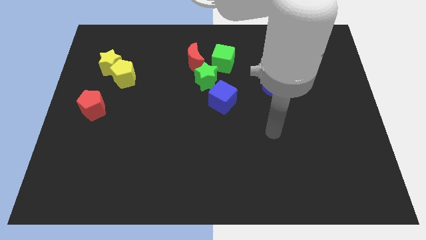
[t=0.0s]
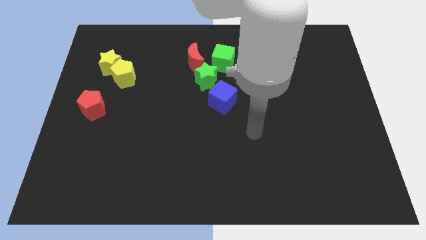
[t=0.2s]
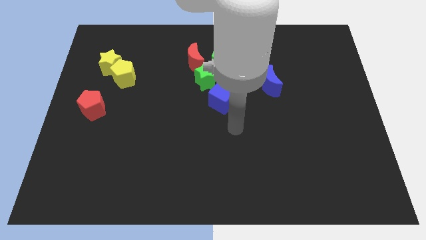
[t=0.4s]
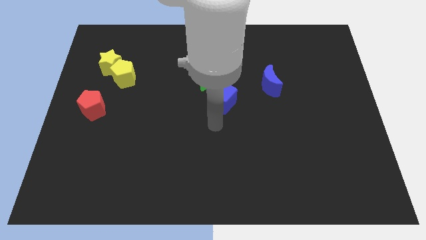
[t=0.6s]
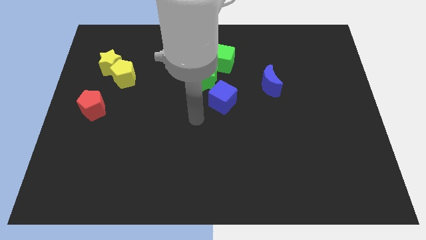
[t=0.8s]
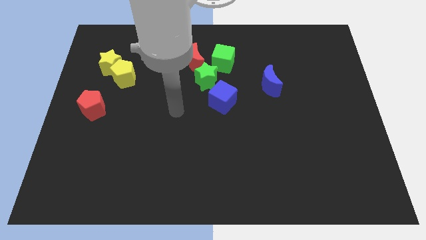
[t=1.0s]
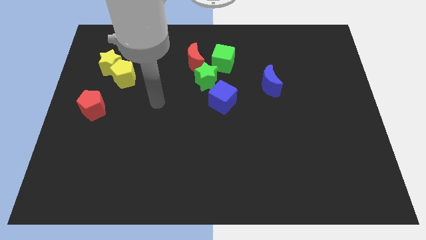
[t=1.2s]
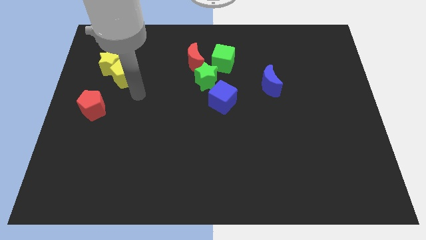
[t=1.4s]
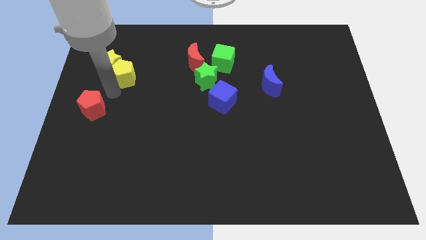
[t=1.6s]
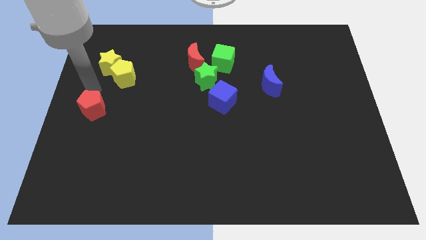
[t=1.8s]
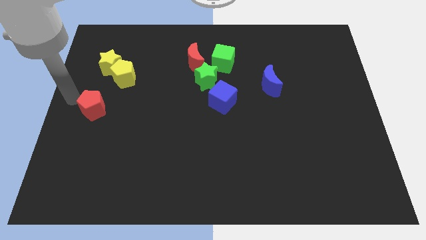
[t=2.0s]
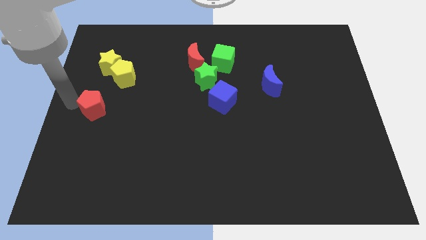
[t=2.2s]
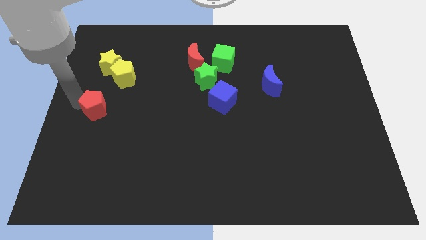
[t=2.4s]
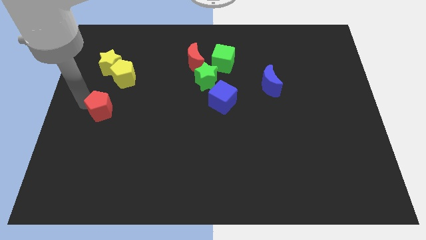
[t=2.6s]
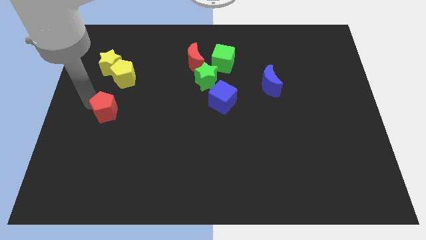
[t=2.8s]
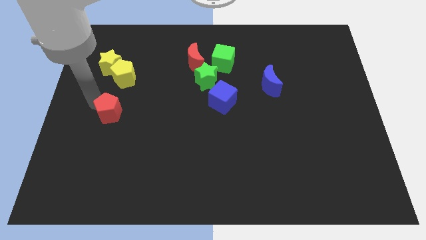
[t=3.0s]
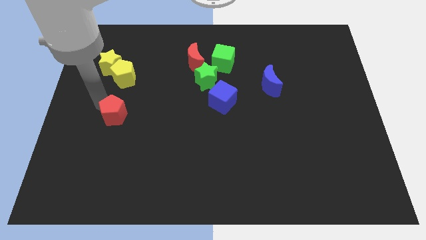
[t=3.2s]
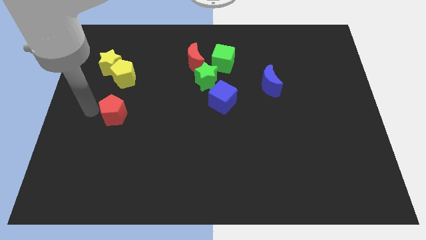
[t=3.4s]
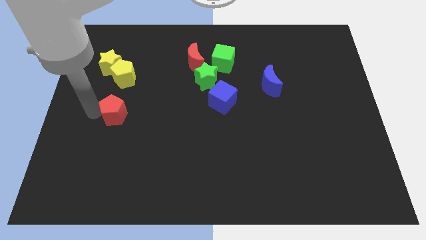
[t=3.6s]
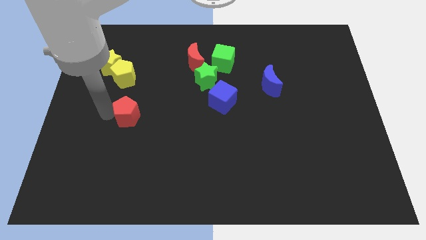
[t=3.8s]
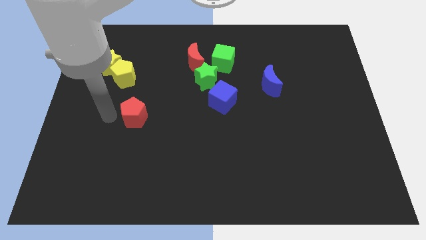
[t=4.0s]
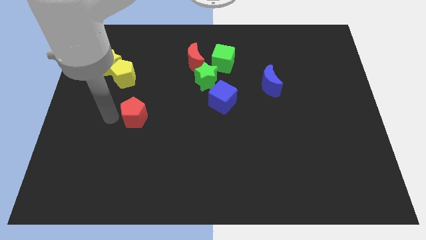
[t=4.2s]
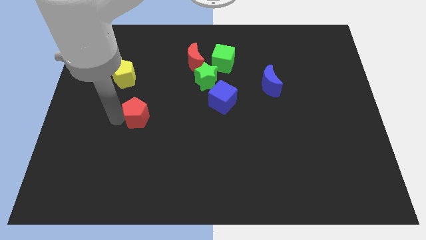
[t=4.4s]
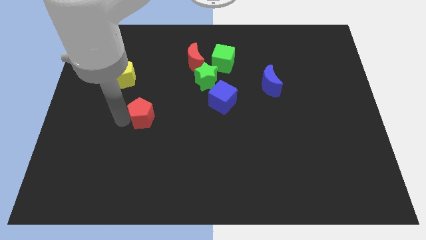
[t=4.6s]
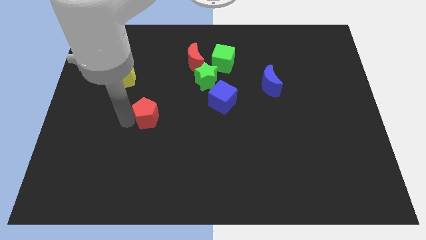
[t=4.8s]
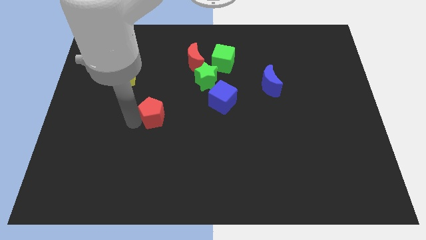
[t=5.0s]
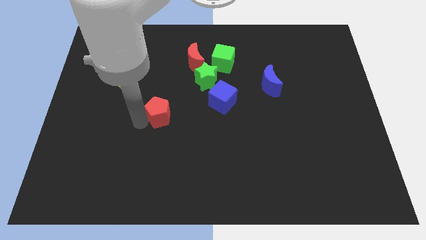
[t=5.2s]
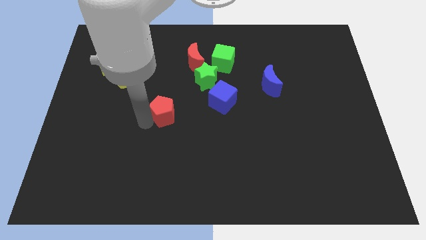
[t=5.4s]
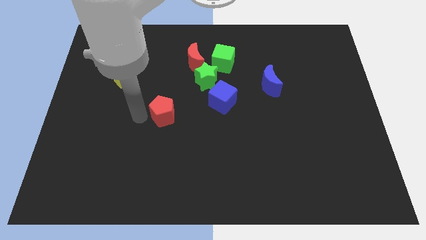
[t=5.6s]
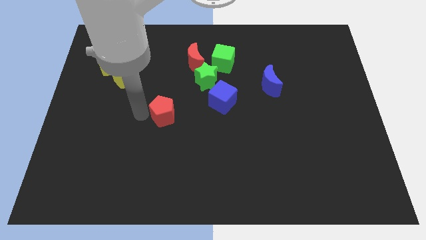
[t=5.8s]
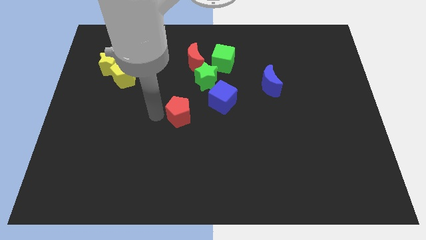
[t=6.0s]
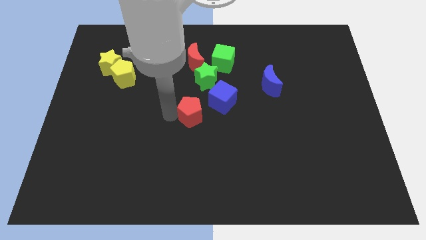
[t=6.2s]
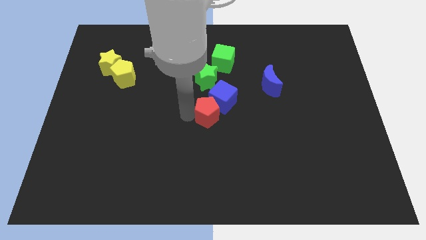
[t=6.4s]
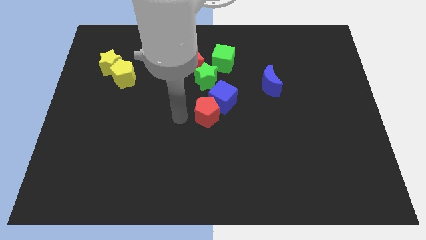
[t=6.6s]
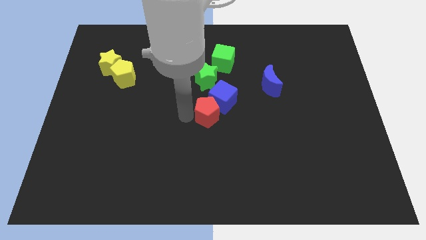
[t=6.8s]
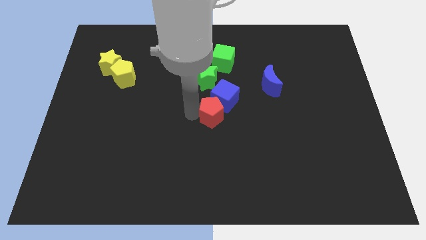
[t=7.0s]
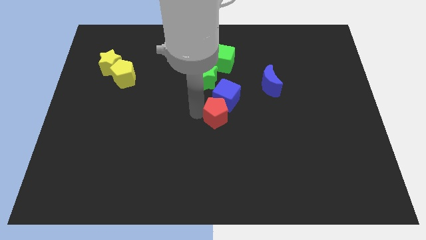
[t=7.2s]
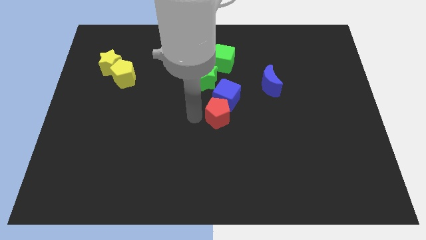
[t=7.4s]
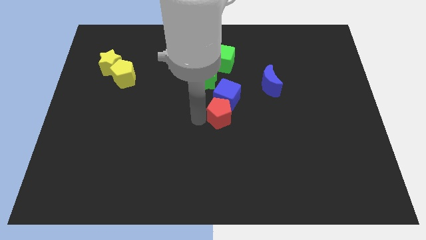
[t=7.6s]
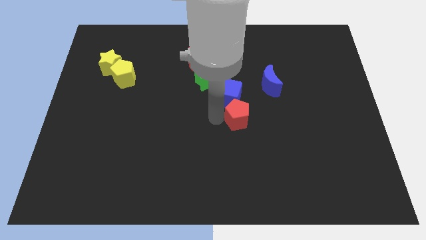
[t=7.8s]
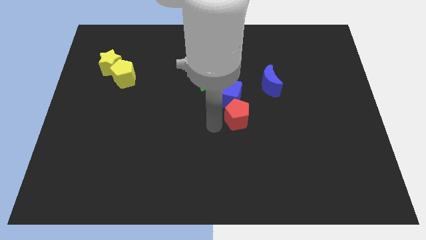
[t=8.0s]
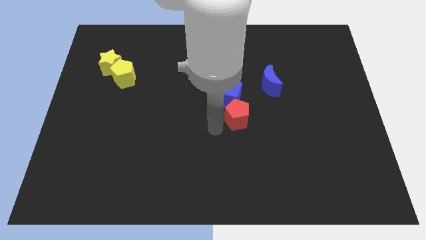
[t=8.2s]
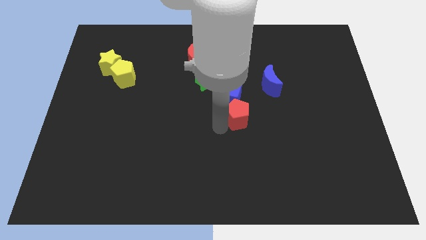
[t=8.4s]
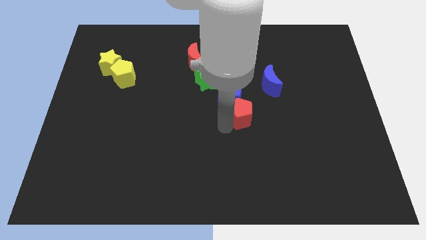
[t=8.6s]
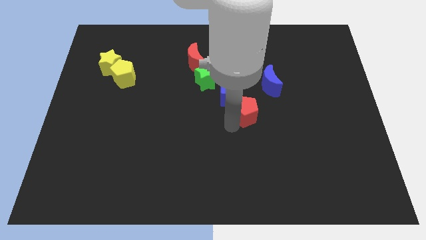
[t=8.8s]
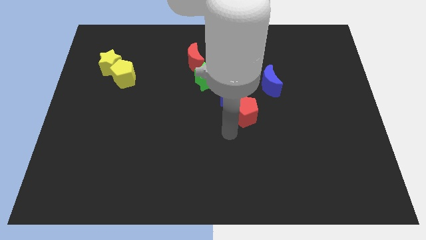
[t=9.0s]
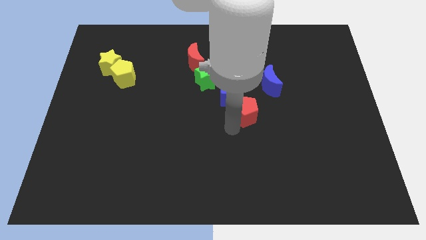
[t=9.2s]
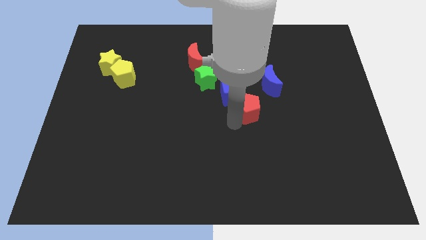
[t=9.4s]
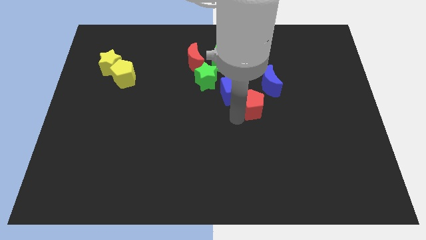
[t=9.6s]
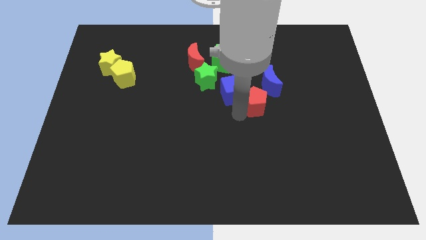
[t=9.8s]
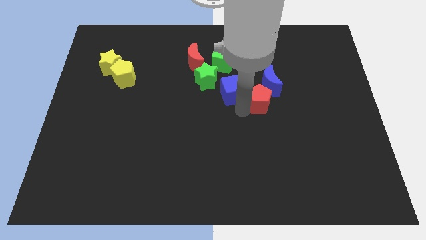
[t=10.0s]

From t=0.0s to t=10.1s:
push the red pentagon next to the blue moon

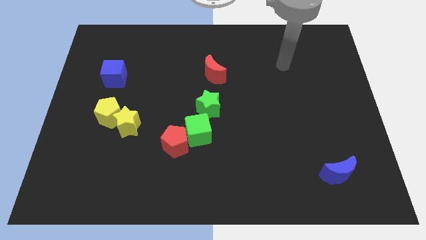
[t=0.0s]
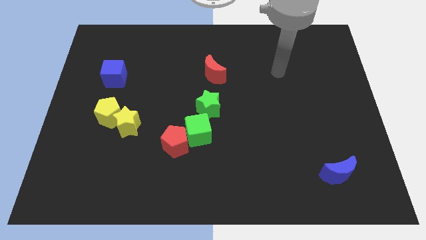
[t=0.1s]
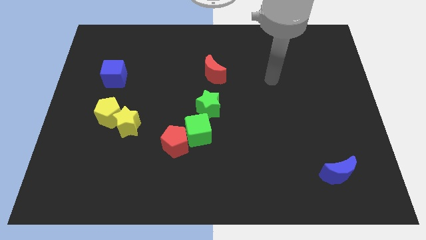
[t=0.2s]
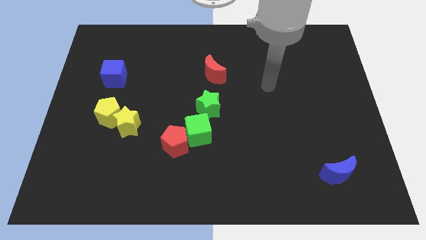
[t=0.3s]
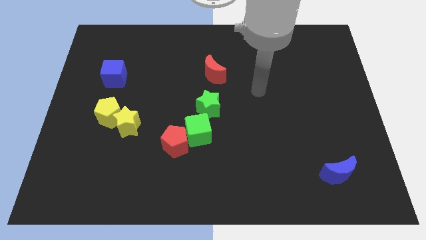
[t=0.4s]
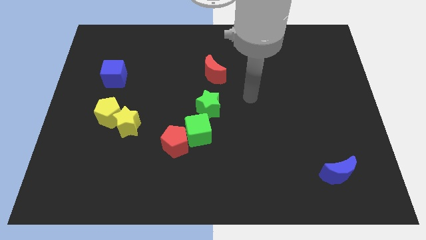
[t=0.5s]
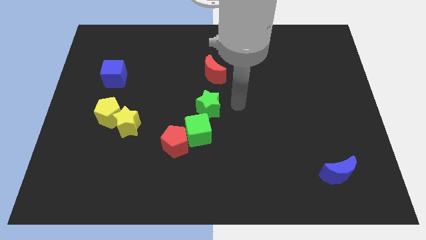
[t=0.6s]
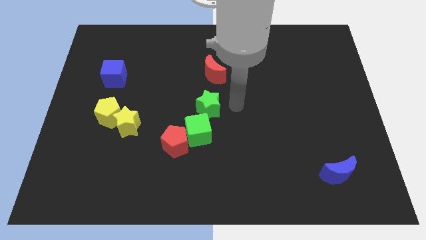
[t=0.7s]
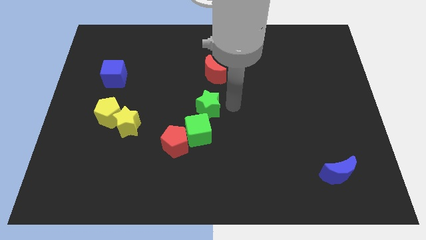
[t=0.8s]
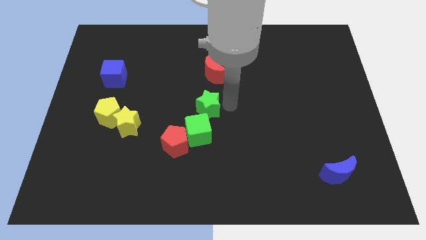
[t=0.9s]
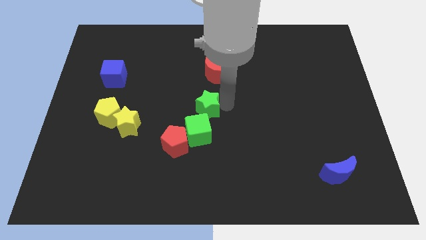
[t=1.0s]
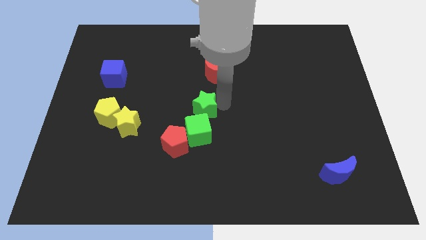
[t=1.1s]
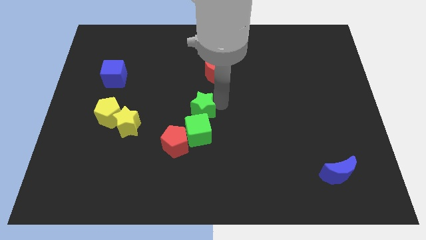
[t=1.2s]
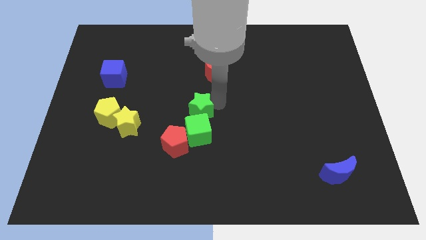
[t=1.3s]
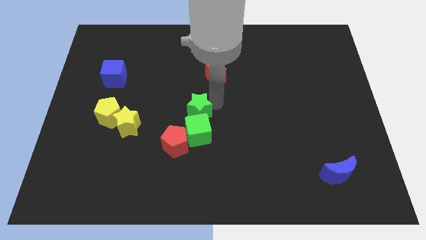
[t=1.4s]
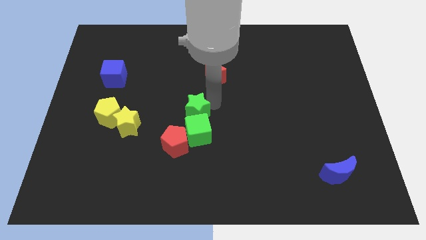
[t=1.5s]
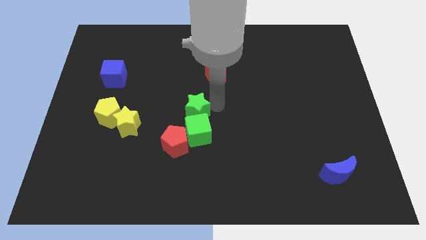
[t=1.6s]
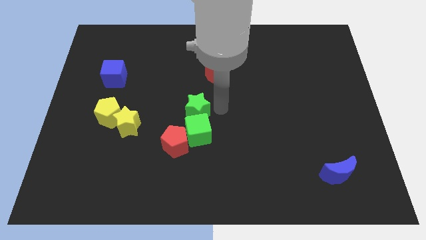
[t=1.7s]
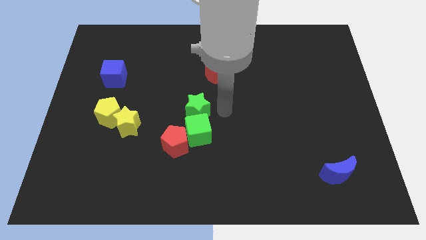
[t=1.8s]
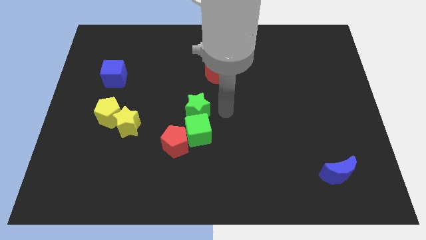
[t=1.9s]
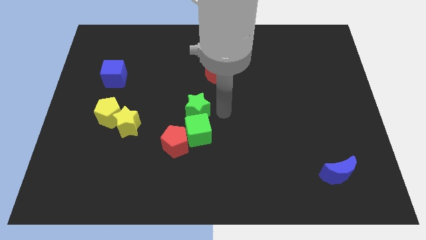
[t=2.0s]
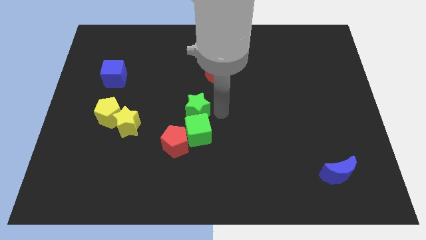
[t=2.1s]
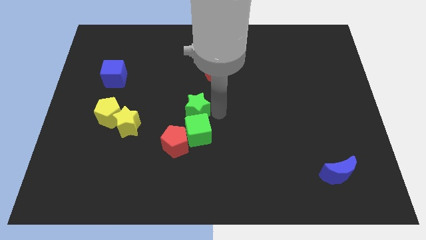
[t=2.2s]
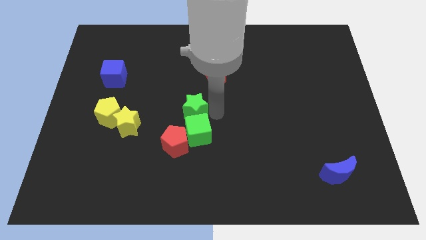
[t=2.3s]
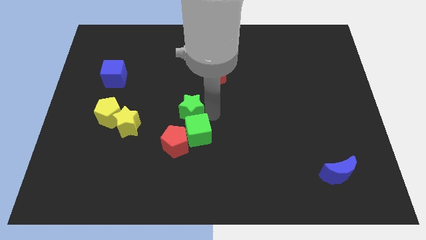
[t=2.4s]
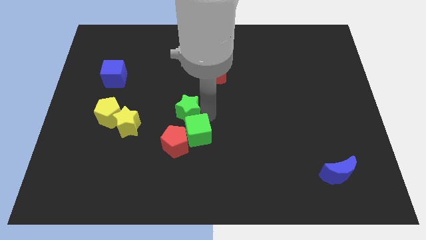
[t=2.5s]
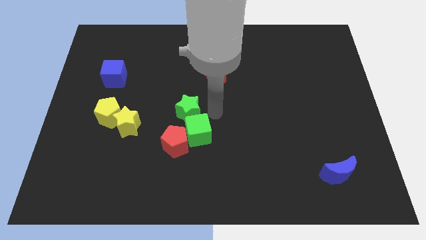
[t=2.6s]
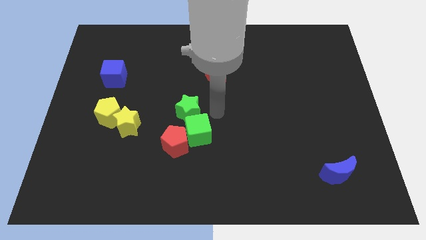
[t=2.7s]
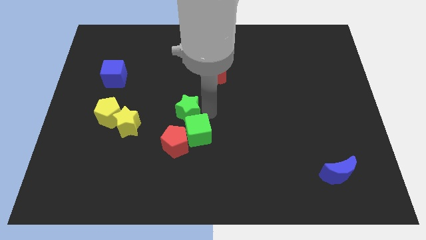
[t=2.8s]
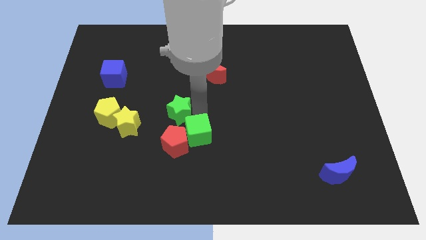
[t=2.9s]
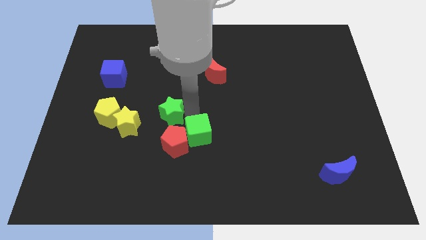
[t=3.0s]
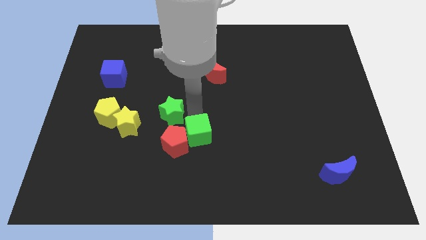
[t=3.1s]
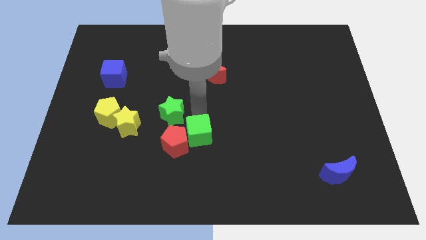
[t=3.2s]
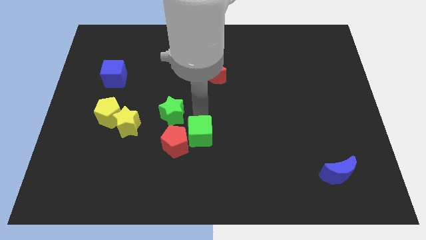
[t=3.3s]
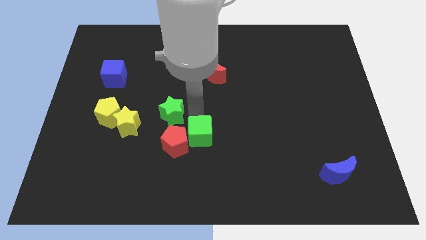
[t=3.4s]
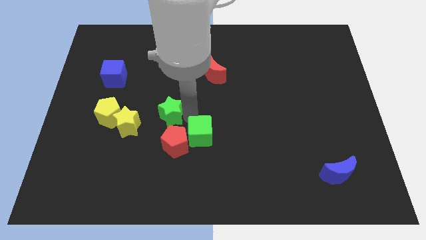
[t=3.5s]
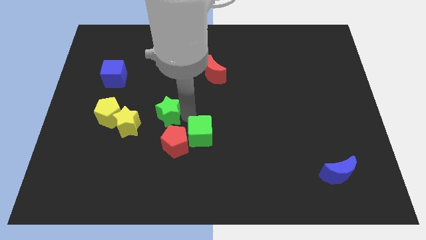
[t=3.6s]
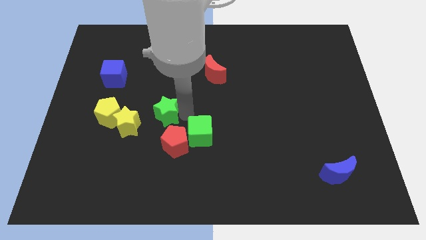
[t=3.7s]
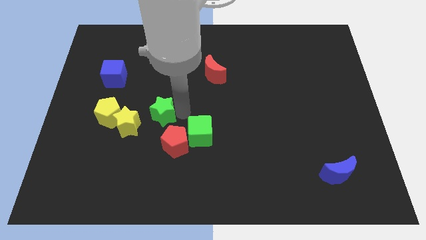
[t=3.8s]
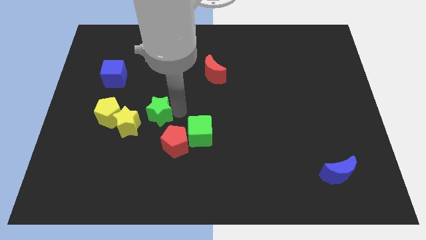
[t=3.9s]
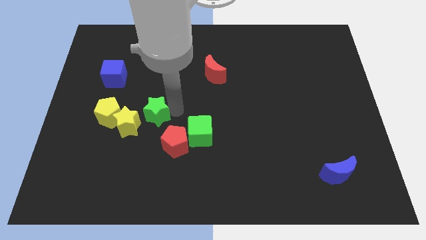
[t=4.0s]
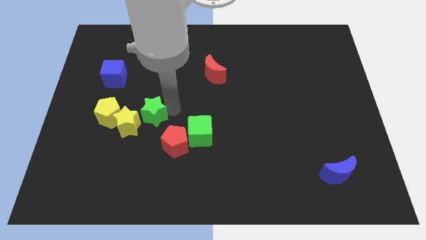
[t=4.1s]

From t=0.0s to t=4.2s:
put the green star to the yellow star
